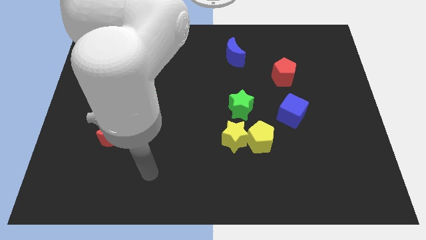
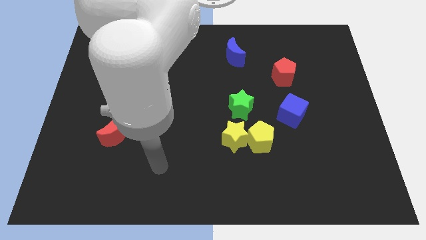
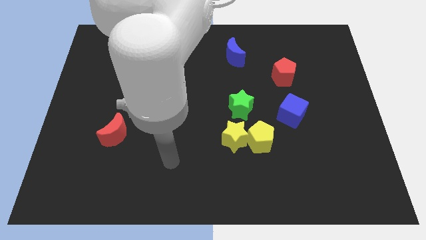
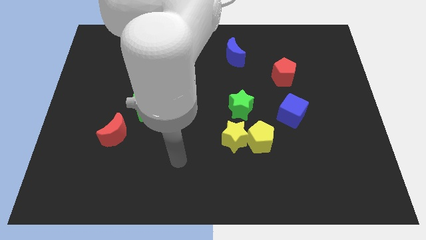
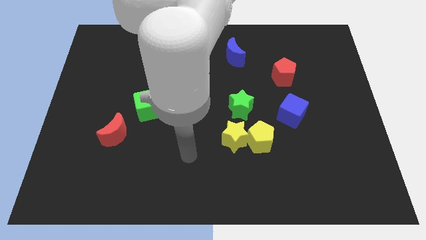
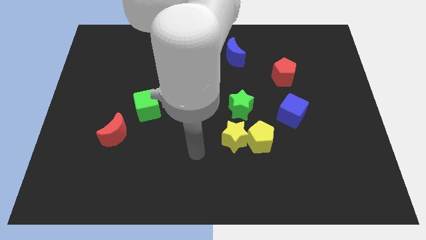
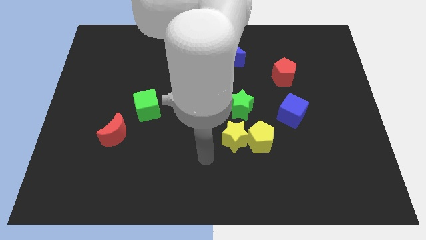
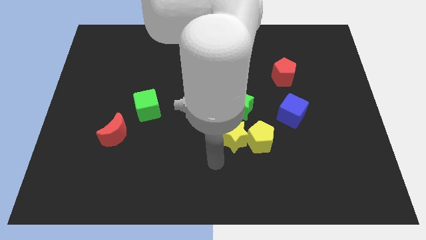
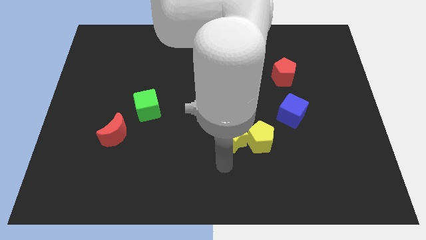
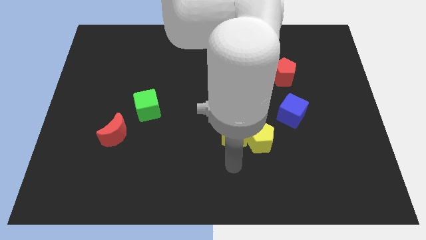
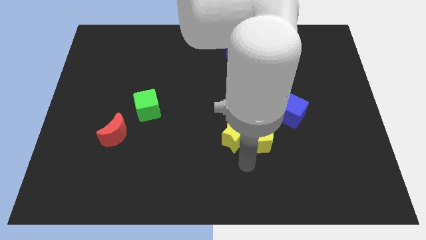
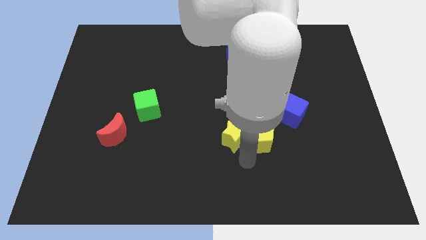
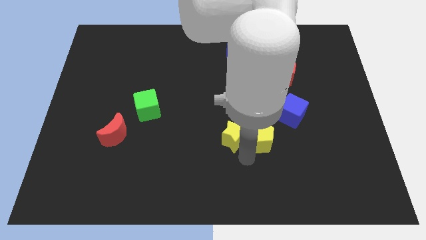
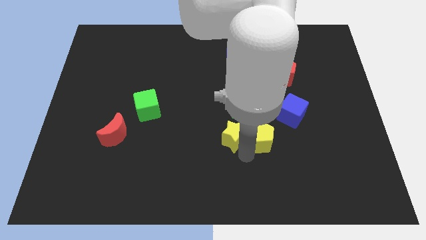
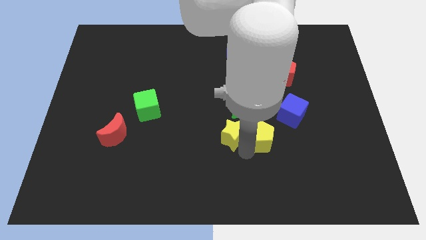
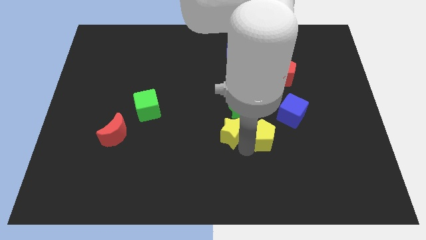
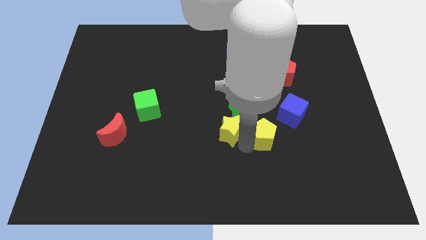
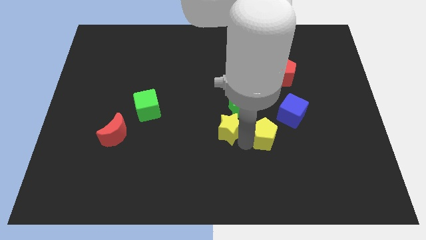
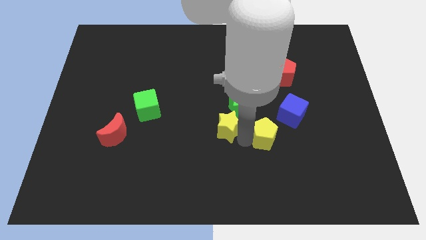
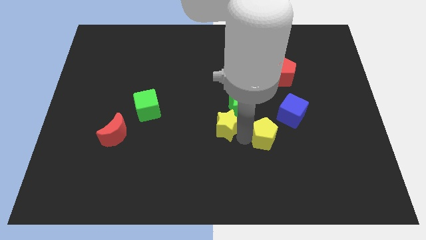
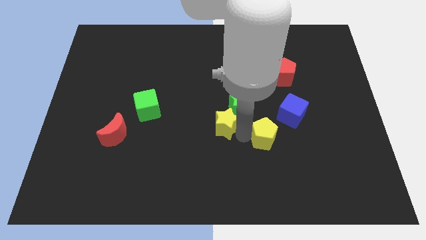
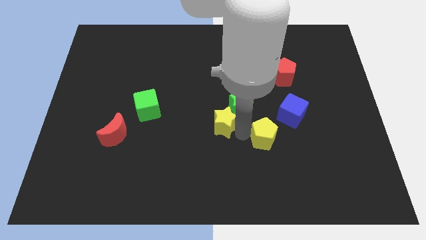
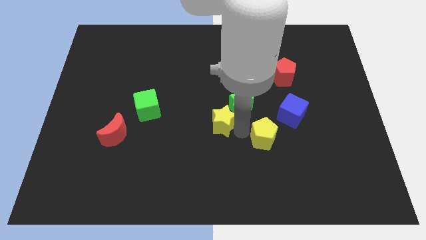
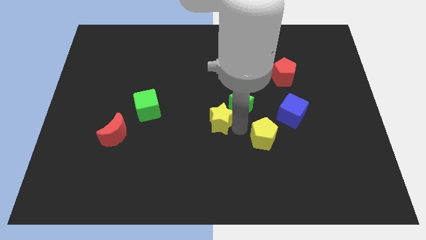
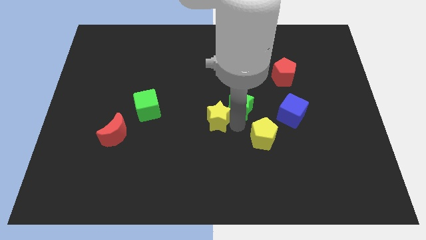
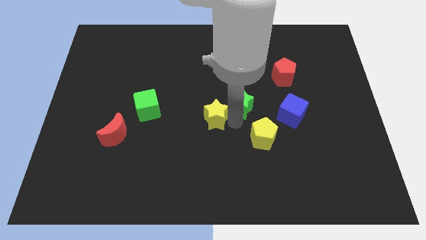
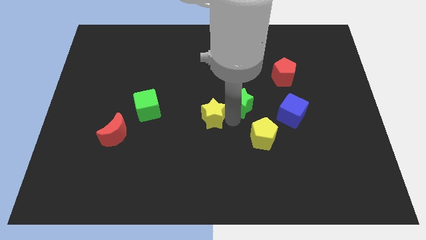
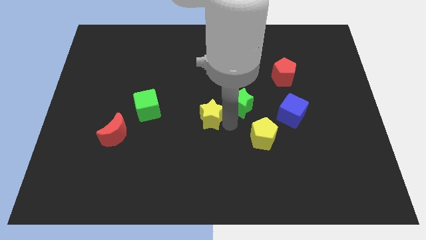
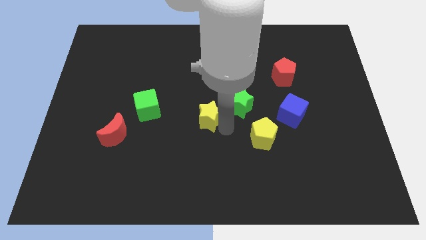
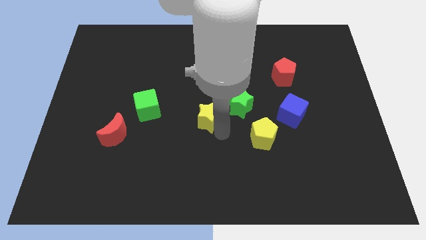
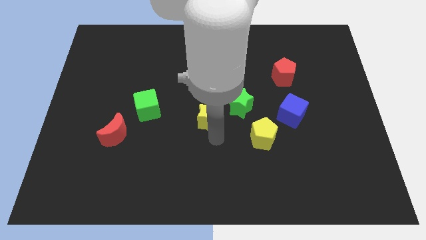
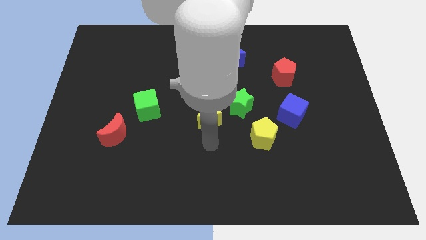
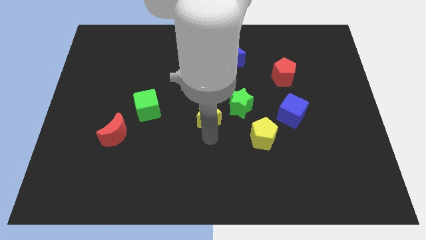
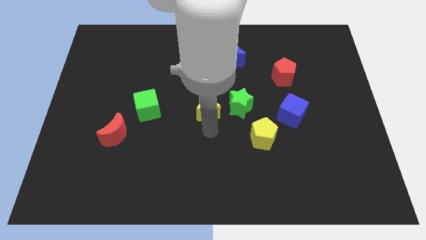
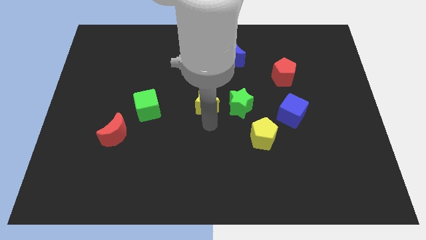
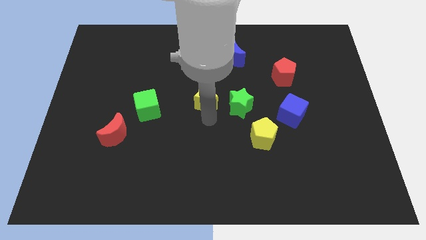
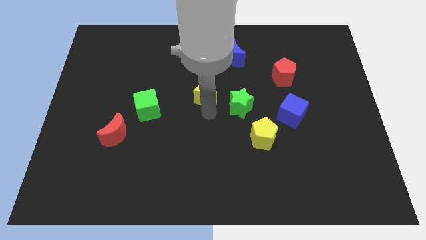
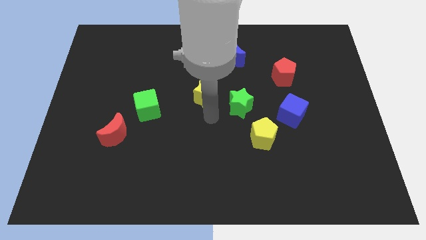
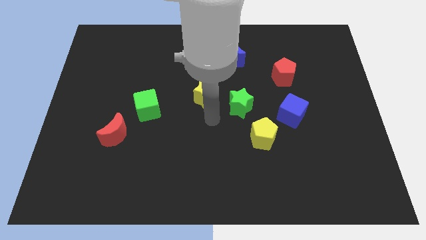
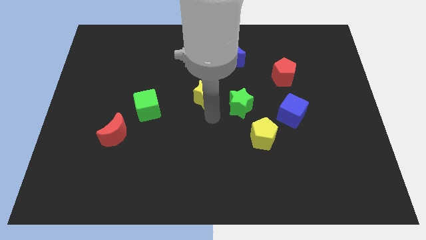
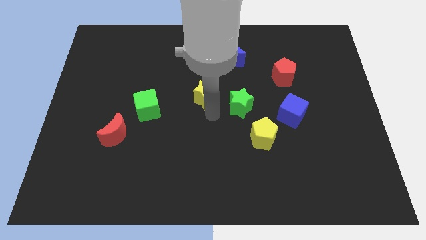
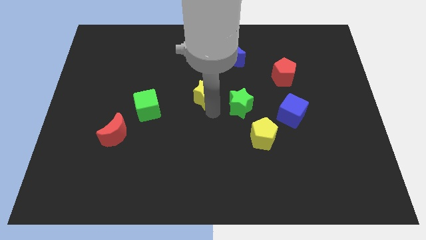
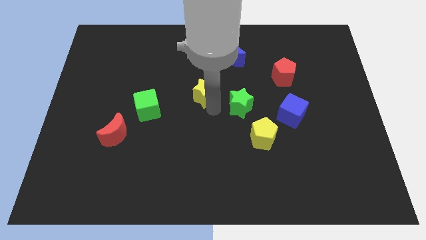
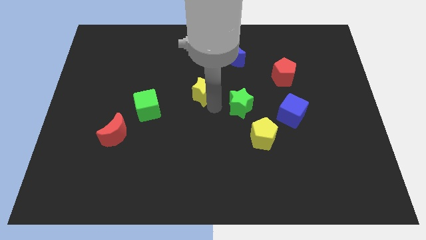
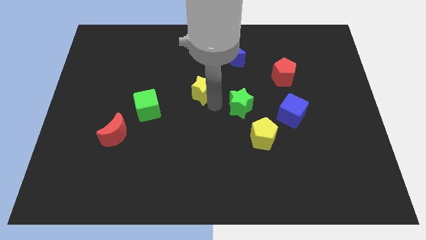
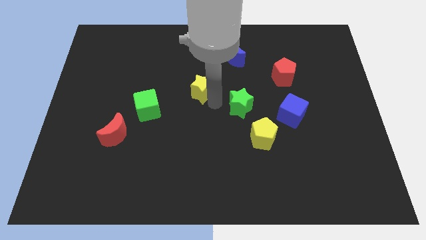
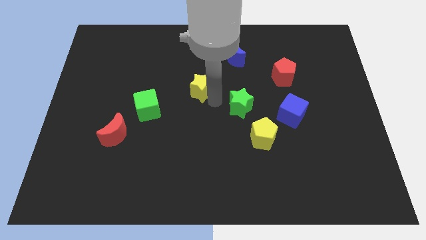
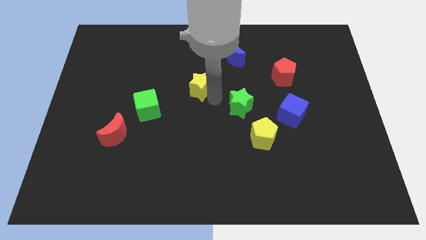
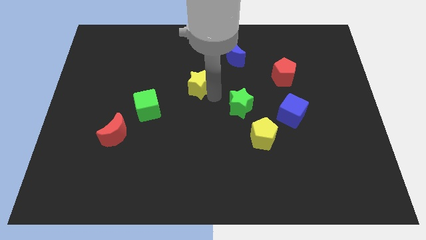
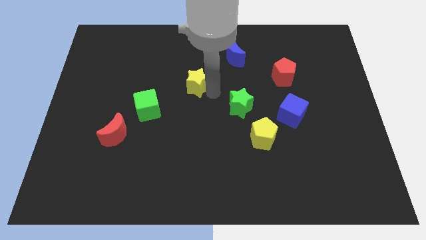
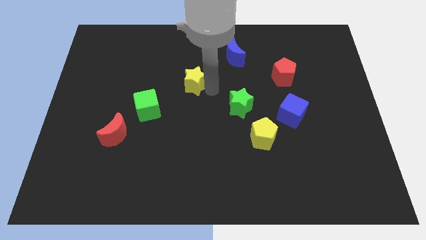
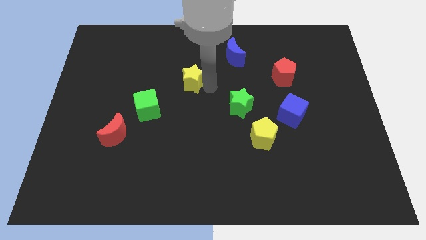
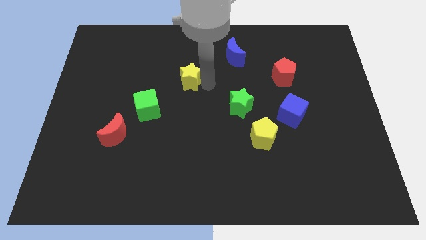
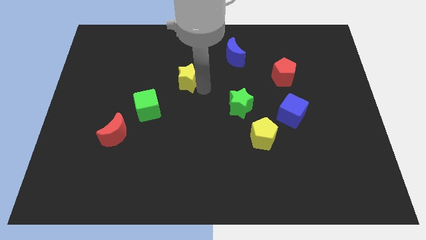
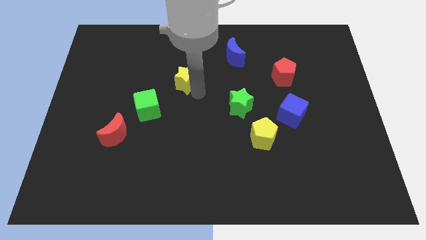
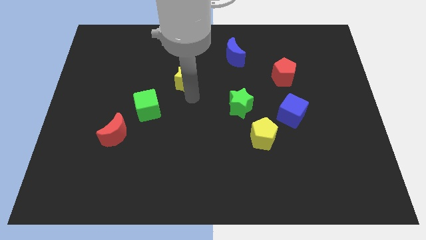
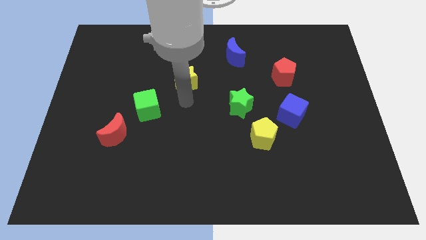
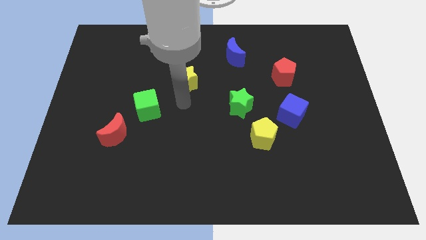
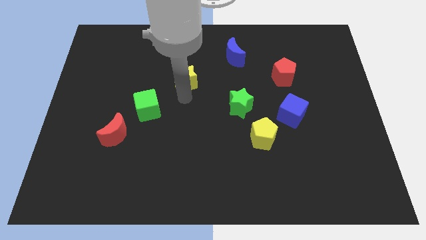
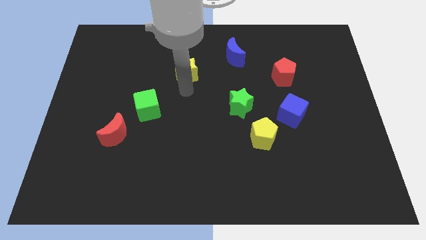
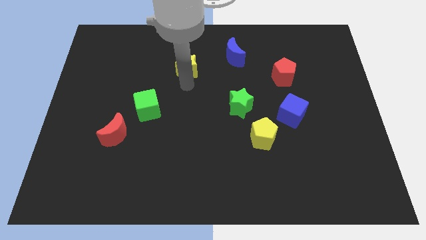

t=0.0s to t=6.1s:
slide the yellow star left of the blue moon
